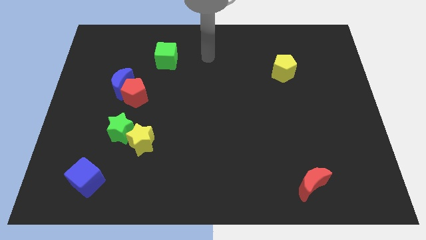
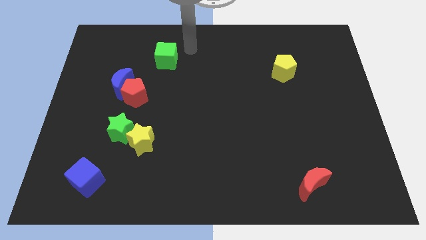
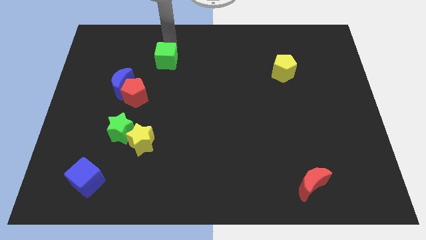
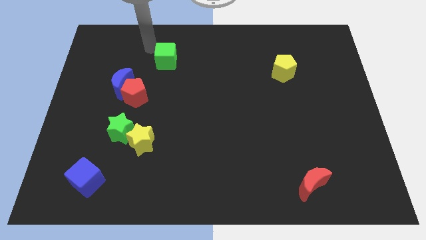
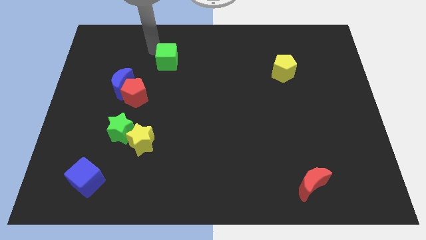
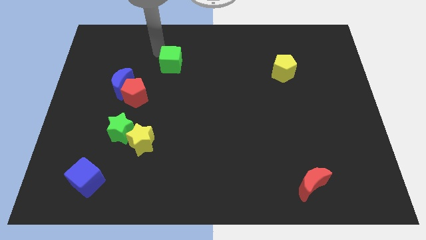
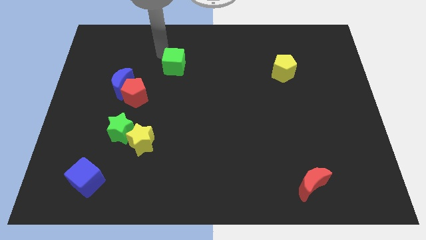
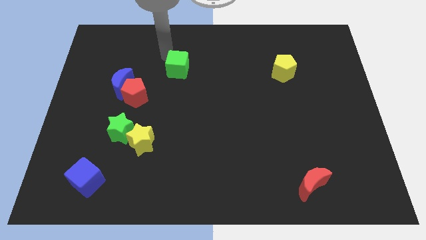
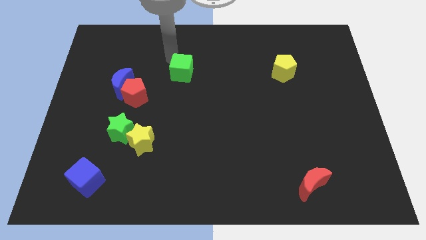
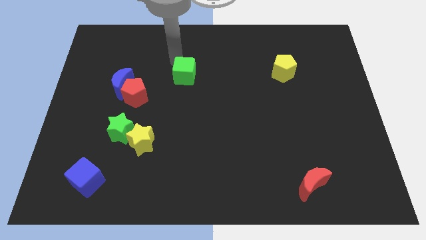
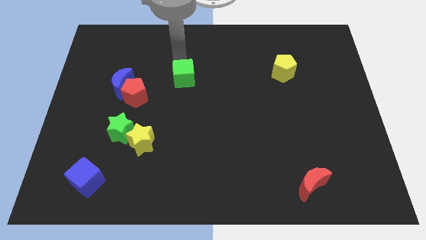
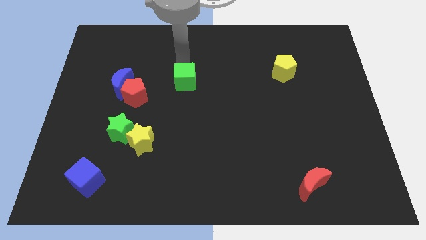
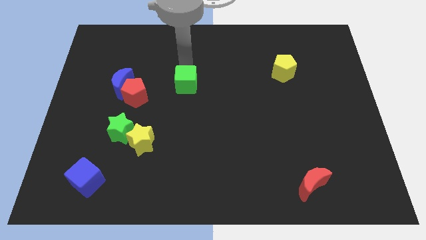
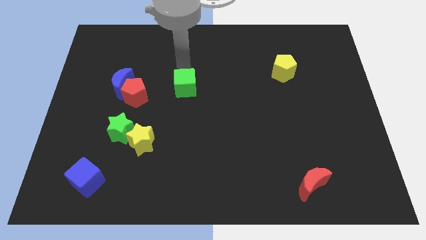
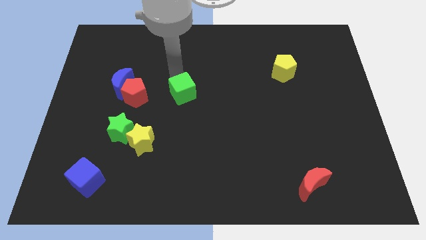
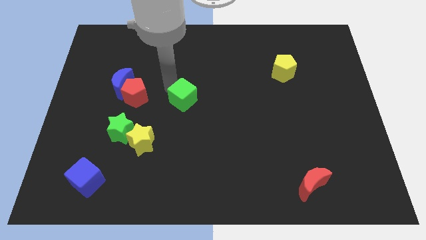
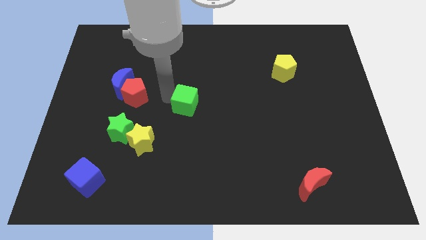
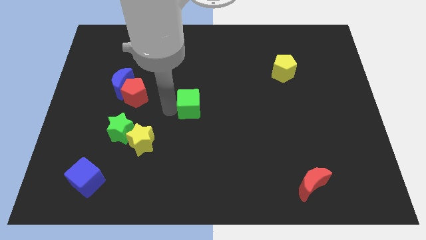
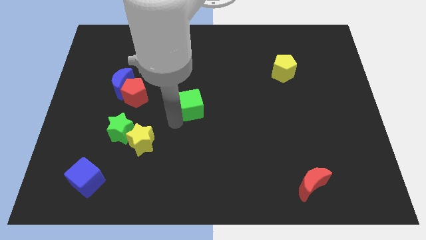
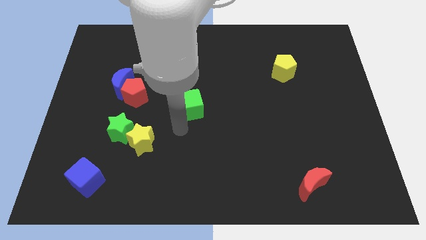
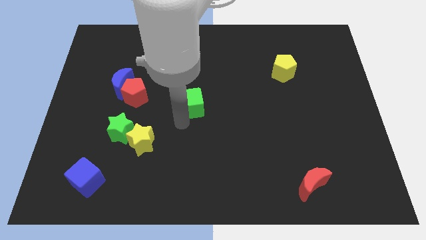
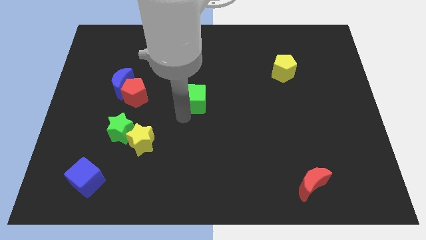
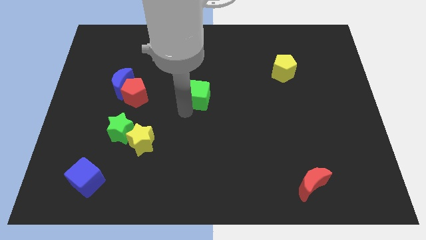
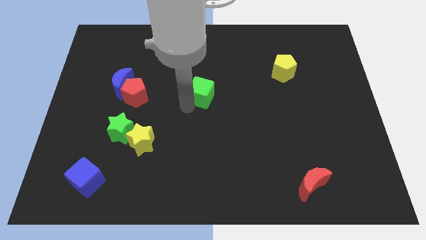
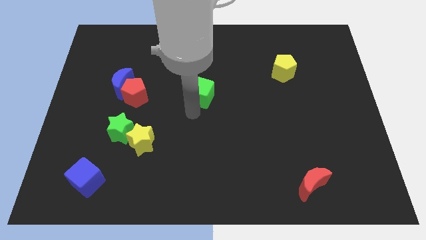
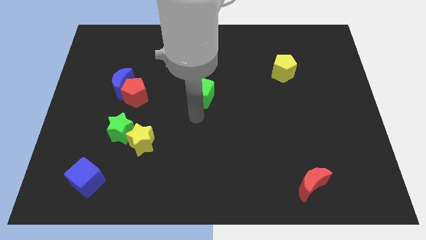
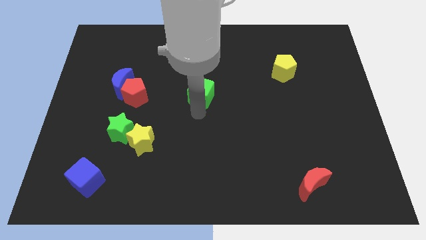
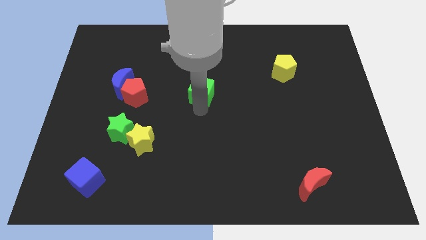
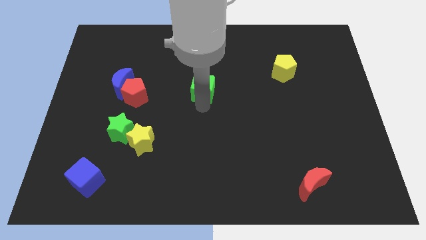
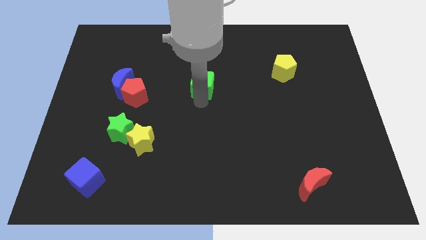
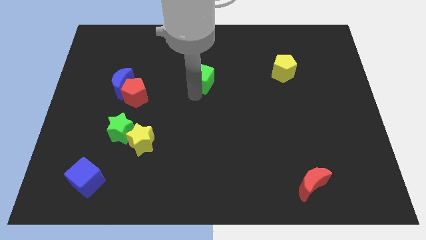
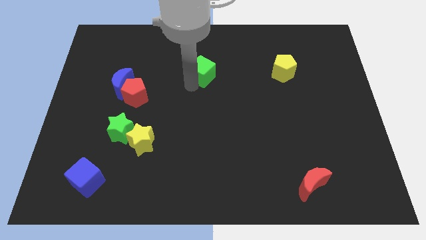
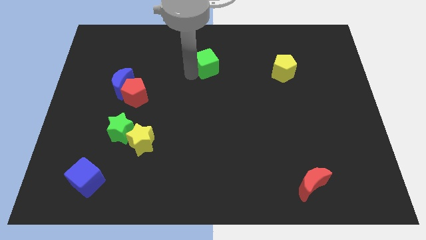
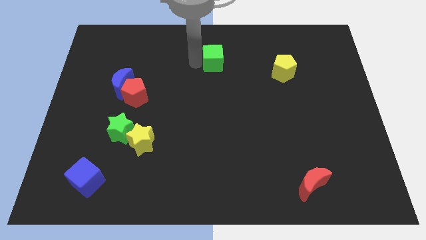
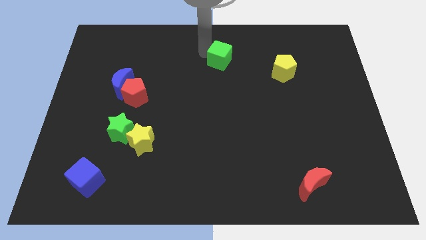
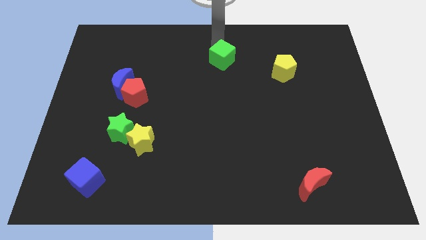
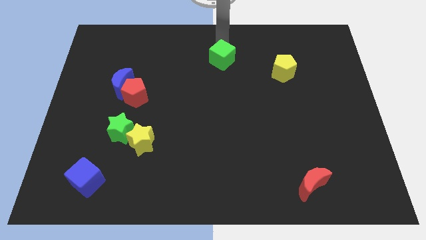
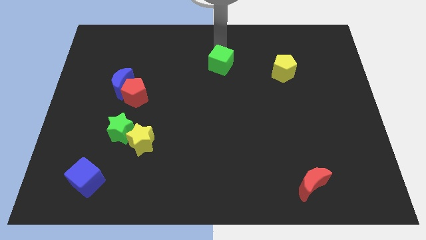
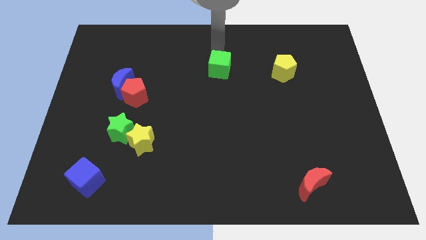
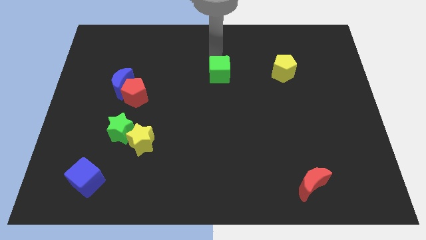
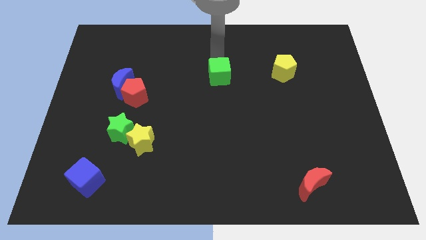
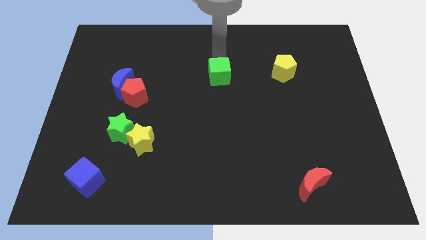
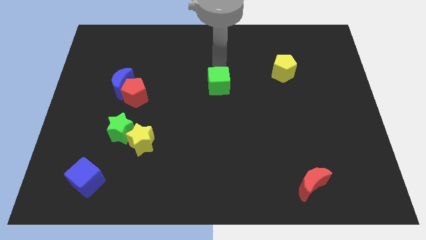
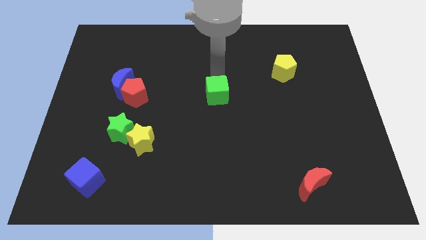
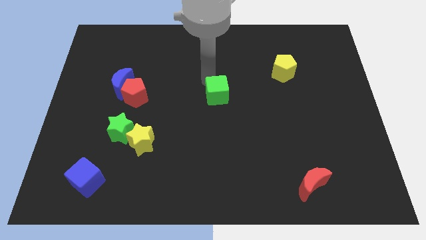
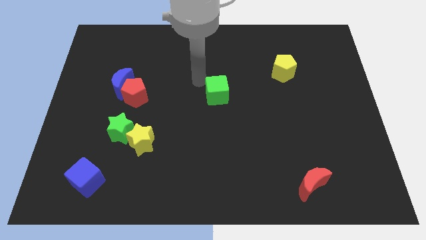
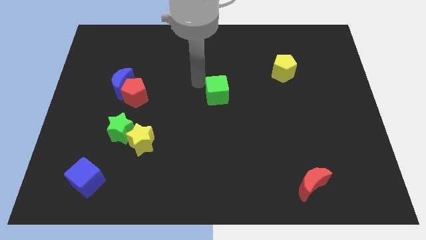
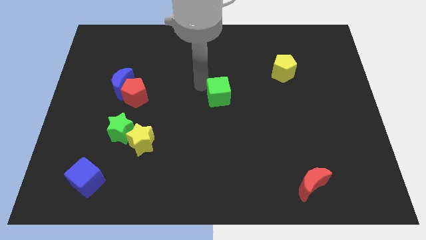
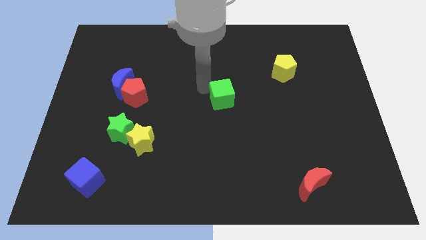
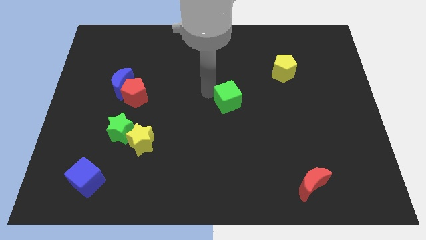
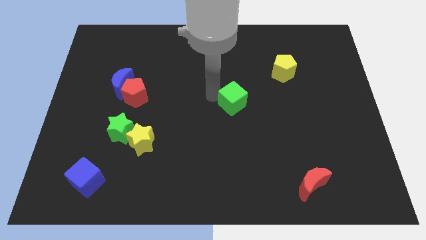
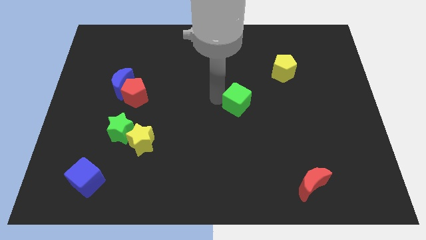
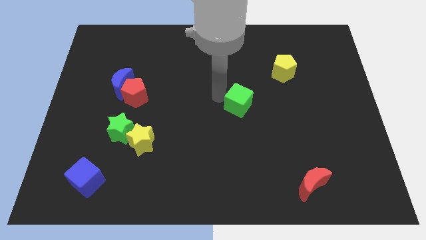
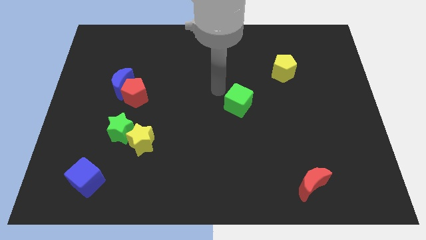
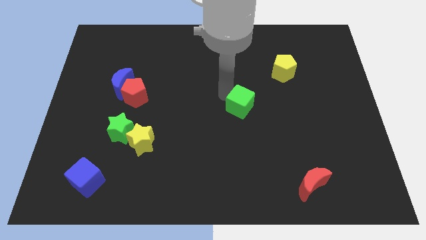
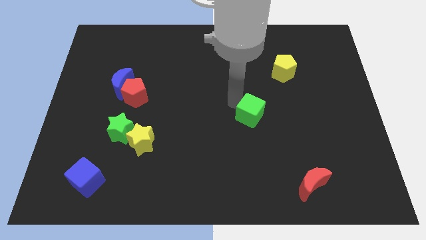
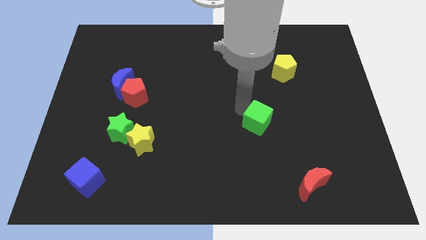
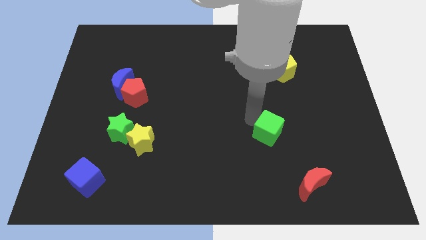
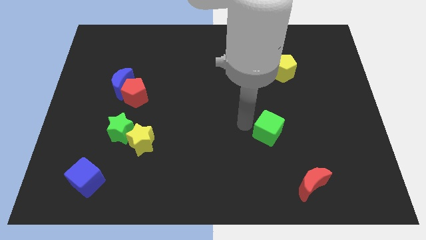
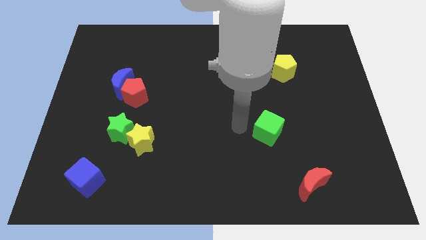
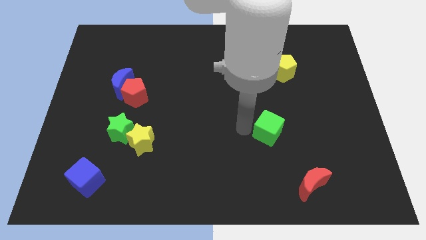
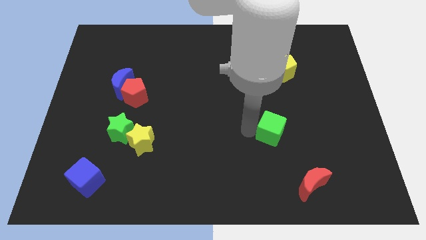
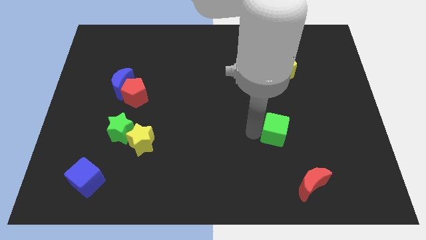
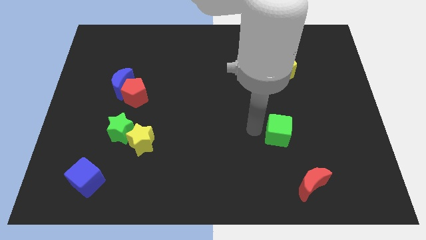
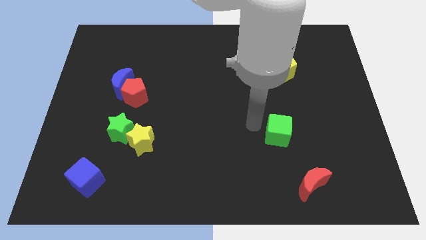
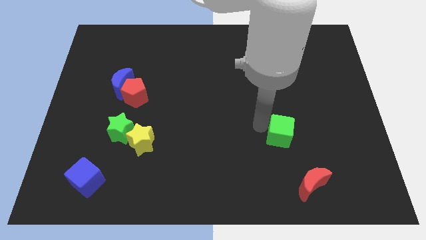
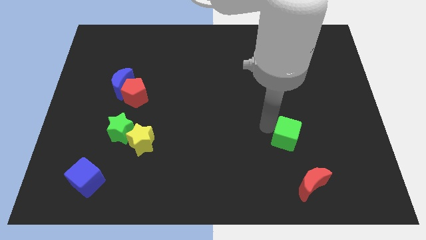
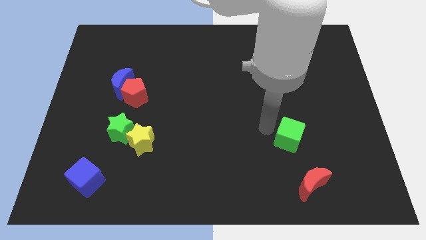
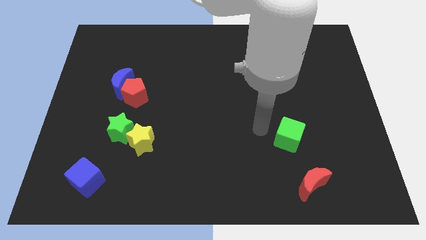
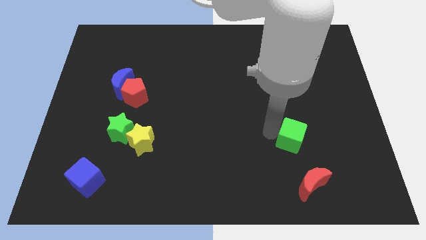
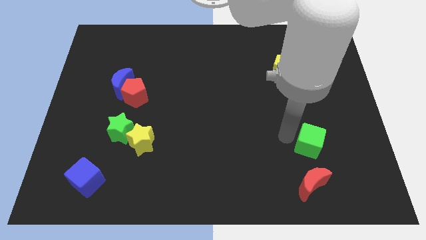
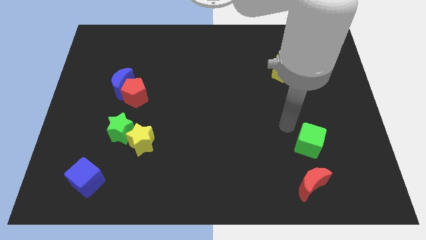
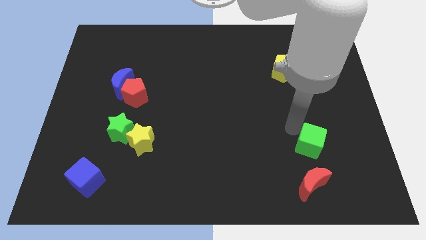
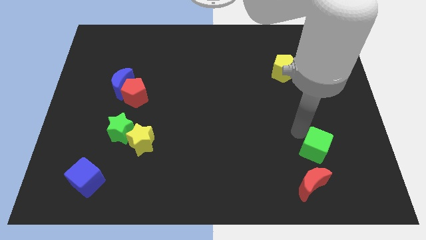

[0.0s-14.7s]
push the green cube to the top right of the red moon
